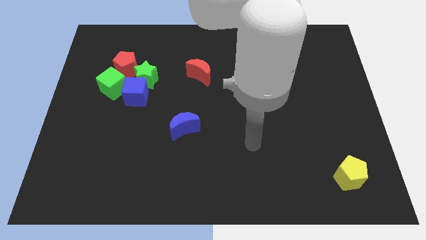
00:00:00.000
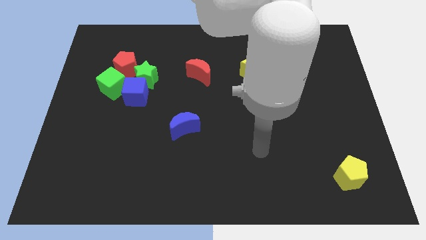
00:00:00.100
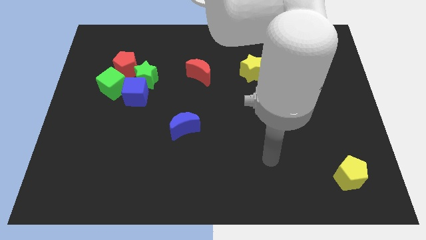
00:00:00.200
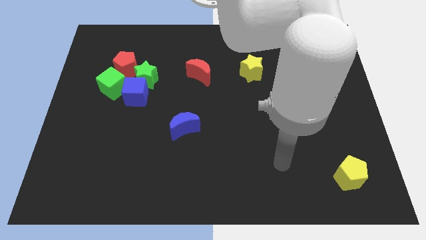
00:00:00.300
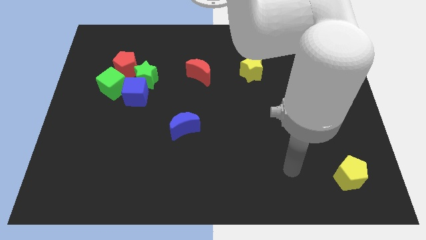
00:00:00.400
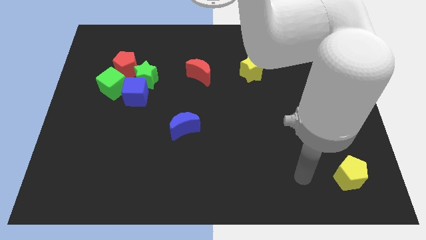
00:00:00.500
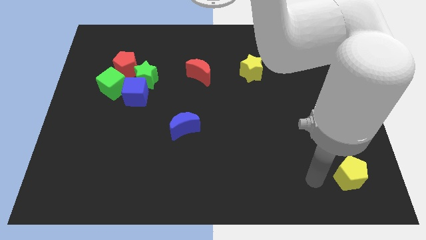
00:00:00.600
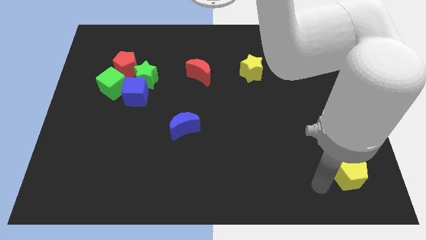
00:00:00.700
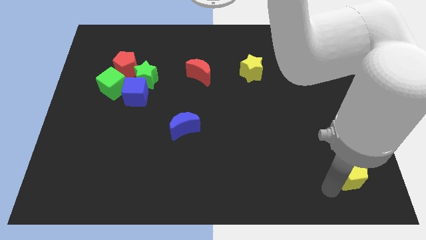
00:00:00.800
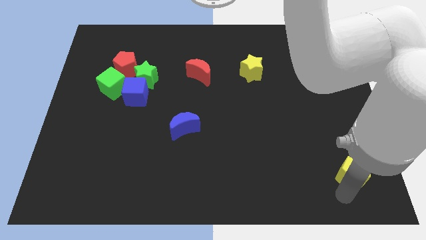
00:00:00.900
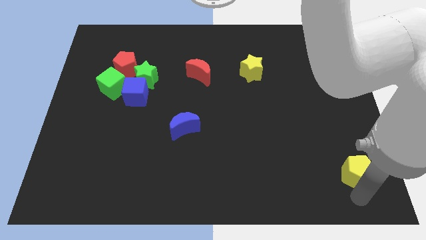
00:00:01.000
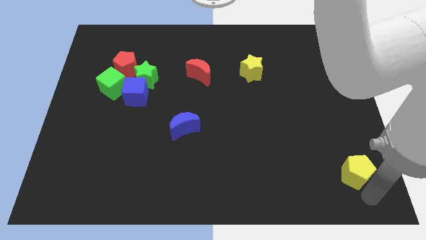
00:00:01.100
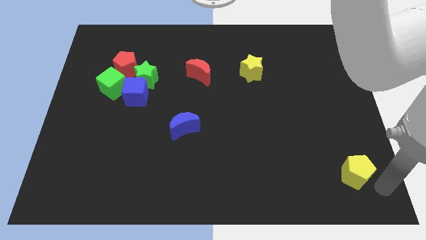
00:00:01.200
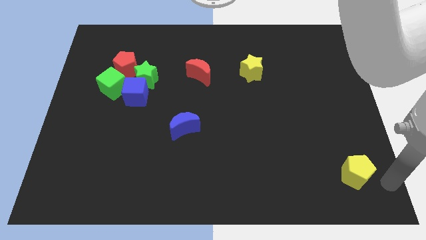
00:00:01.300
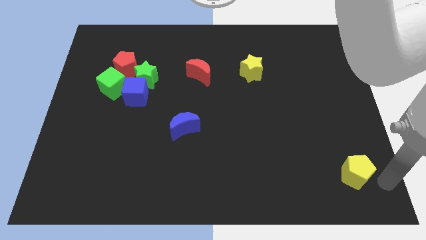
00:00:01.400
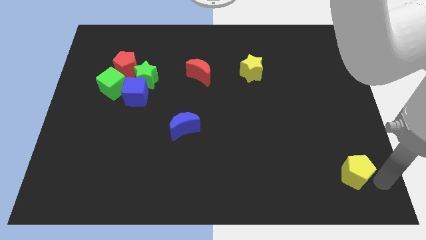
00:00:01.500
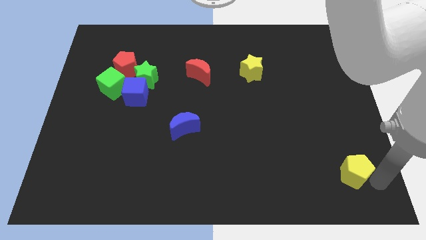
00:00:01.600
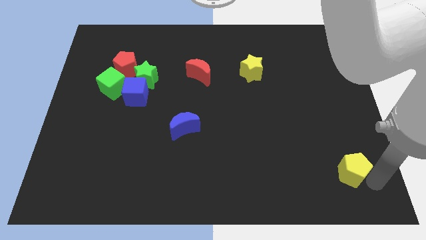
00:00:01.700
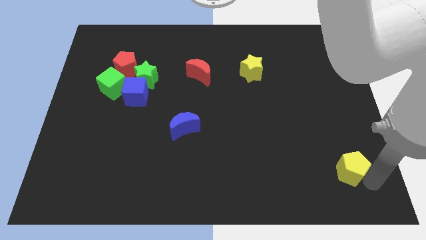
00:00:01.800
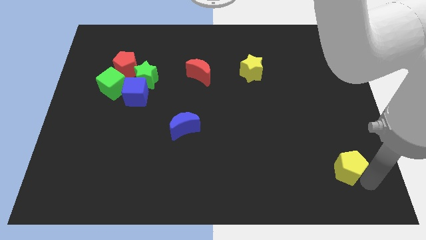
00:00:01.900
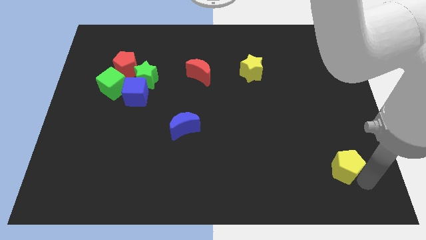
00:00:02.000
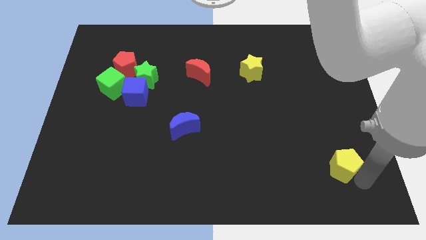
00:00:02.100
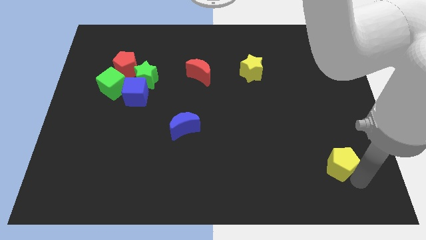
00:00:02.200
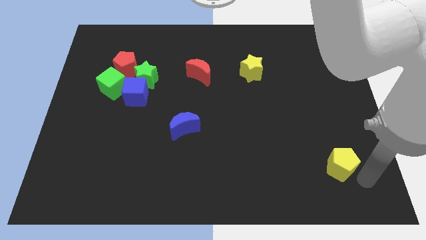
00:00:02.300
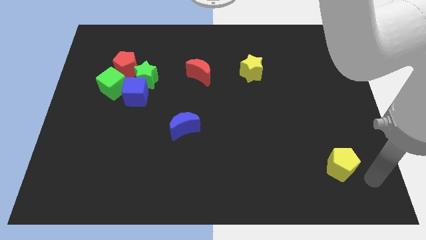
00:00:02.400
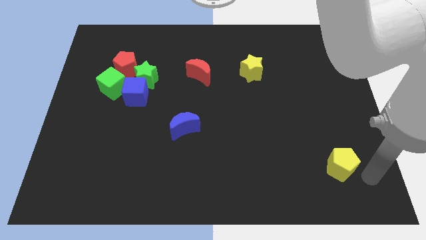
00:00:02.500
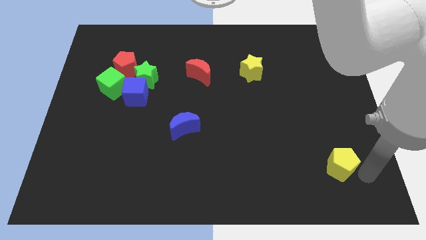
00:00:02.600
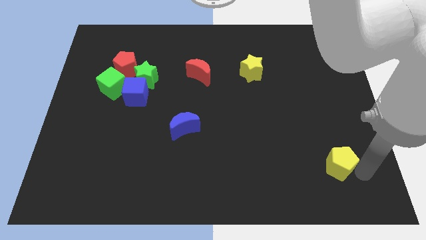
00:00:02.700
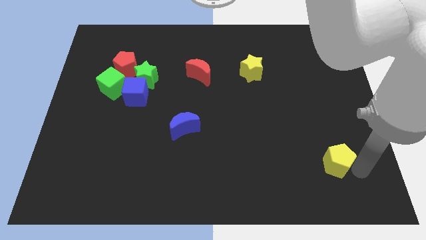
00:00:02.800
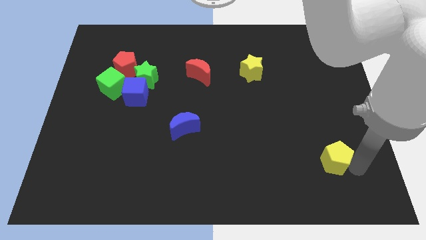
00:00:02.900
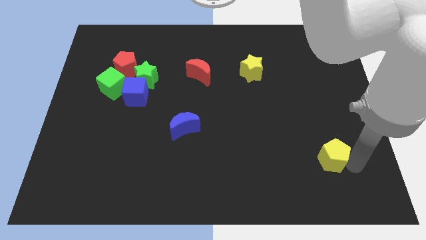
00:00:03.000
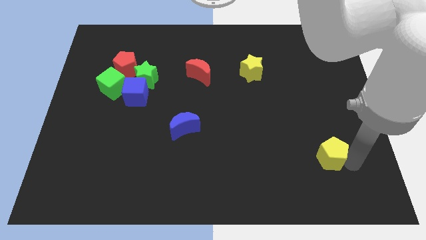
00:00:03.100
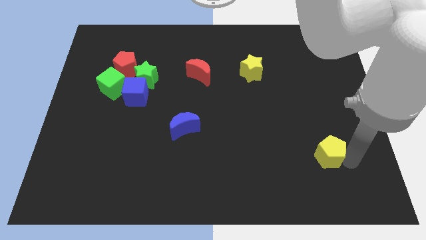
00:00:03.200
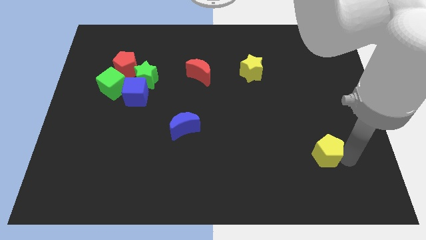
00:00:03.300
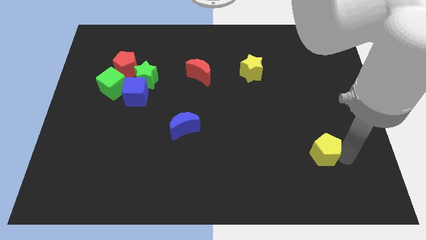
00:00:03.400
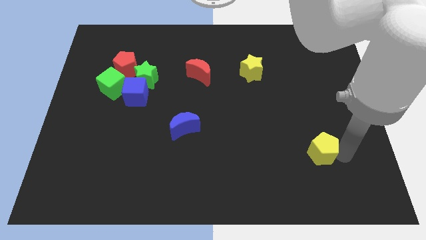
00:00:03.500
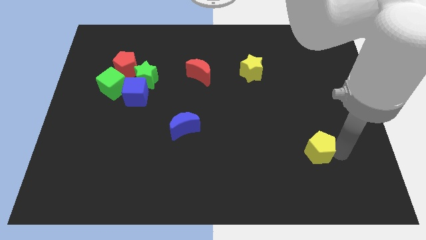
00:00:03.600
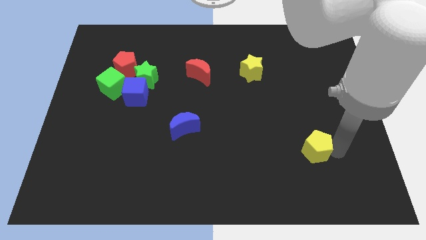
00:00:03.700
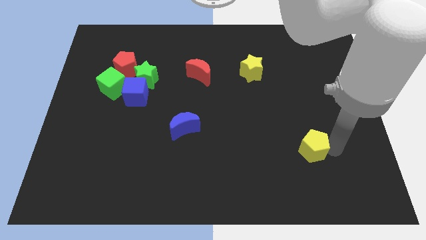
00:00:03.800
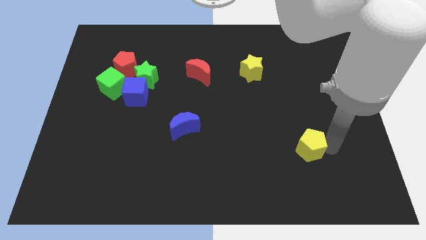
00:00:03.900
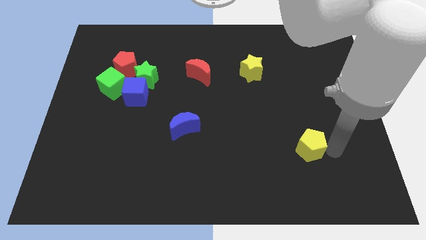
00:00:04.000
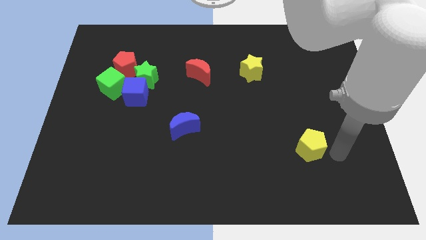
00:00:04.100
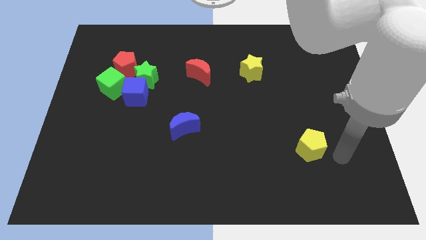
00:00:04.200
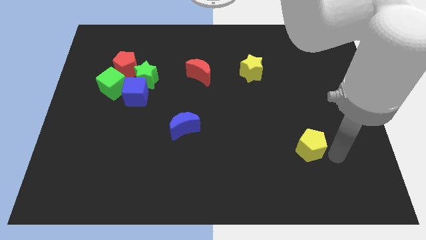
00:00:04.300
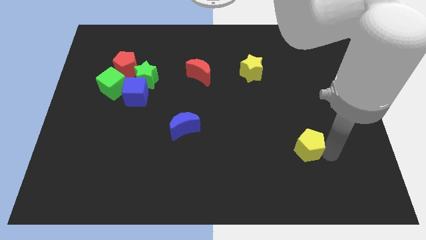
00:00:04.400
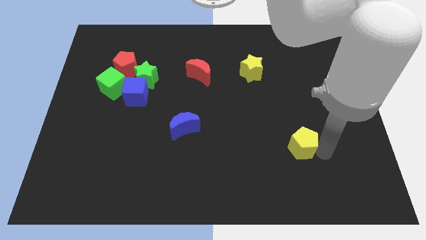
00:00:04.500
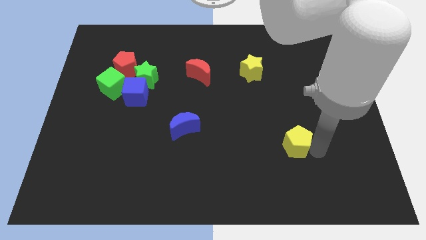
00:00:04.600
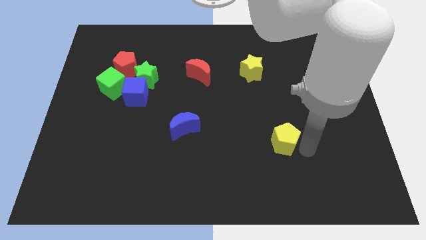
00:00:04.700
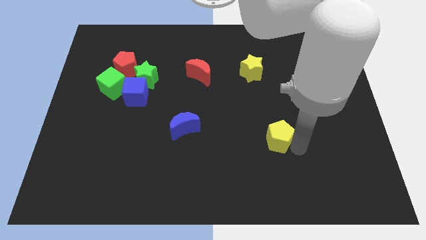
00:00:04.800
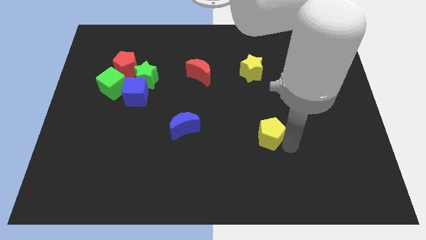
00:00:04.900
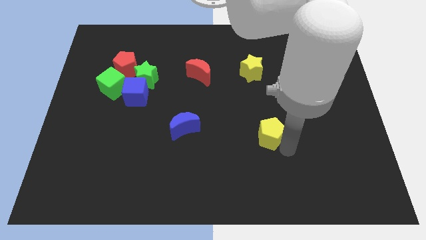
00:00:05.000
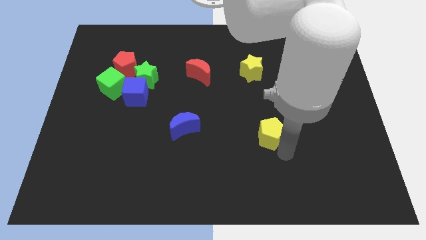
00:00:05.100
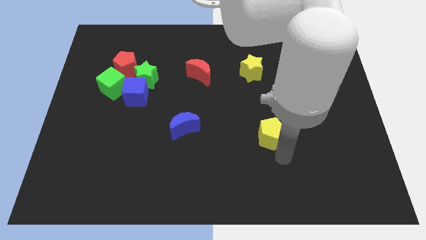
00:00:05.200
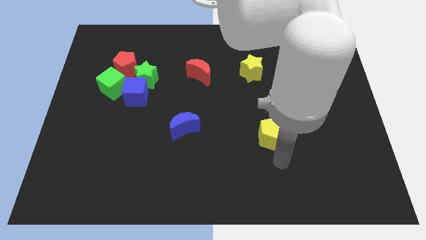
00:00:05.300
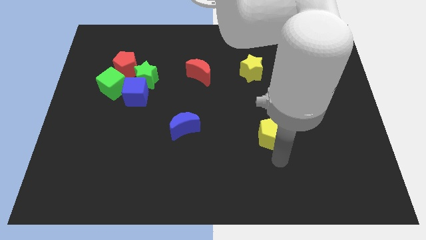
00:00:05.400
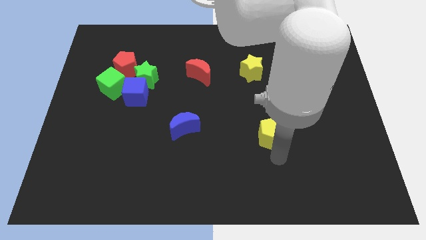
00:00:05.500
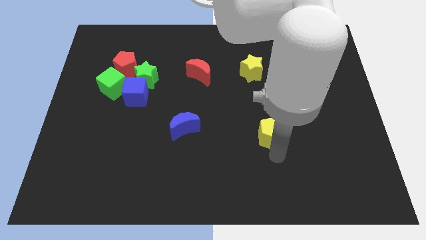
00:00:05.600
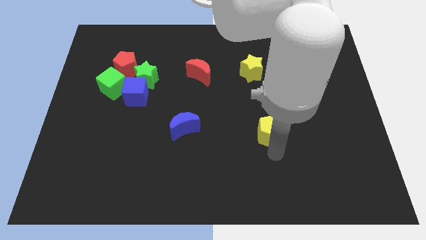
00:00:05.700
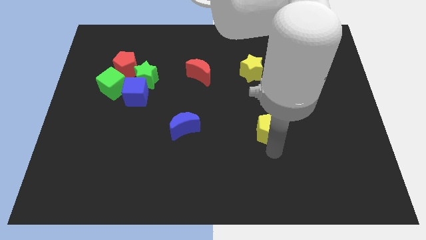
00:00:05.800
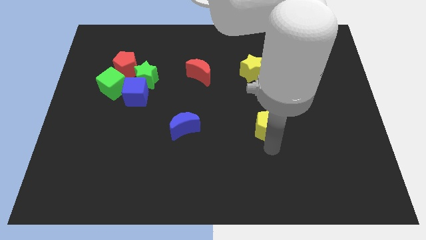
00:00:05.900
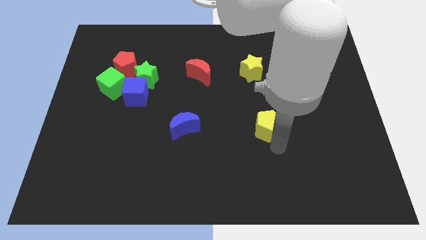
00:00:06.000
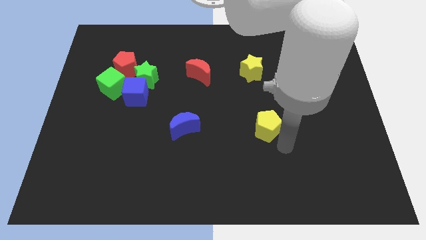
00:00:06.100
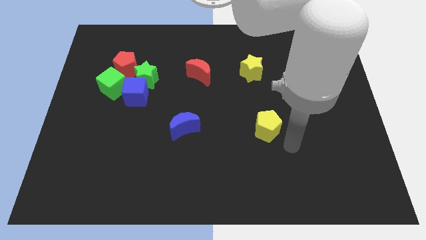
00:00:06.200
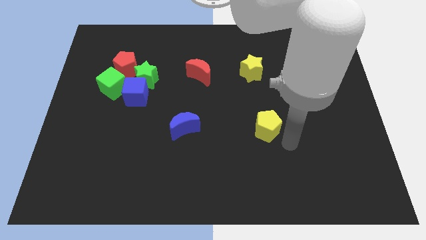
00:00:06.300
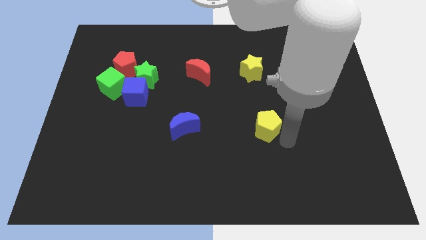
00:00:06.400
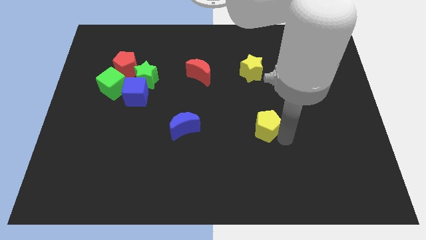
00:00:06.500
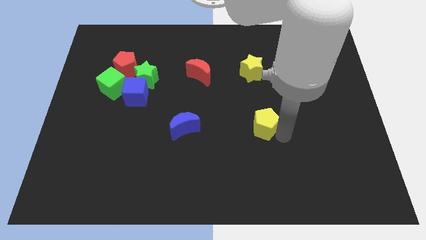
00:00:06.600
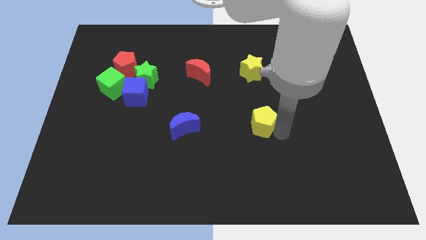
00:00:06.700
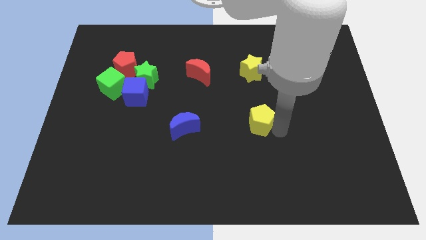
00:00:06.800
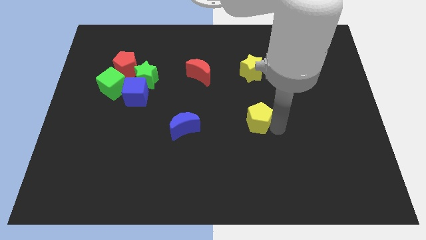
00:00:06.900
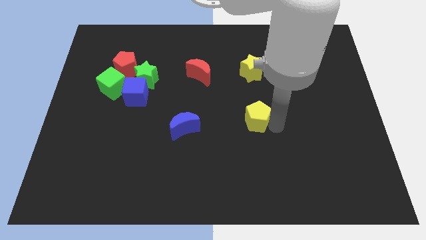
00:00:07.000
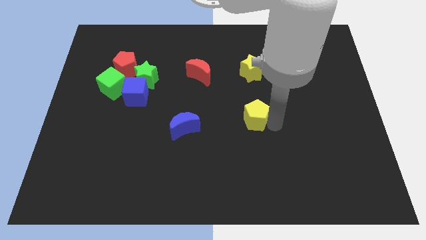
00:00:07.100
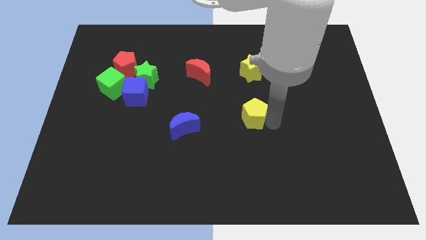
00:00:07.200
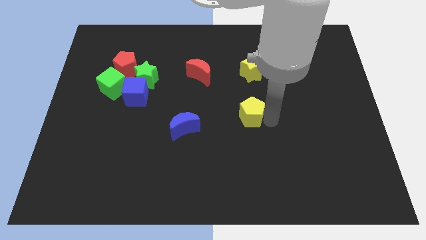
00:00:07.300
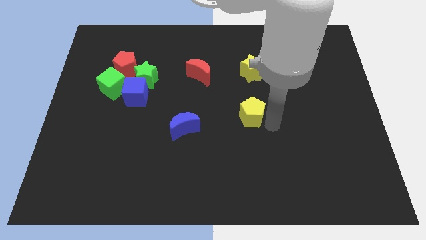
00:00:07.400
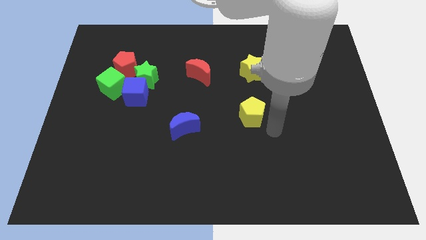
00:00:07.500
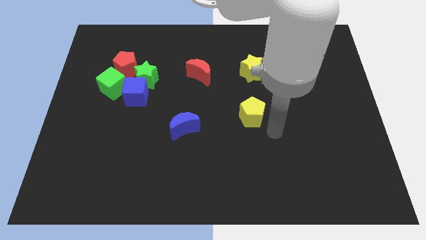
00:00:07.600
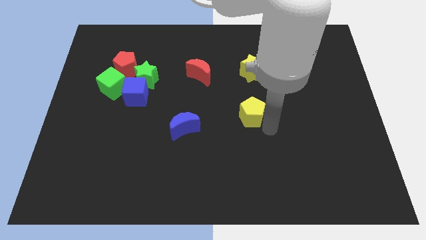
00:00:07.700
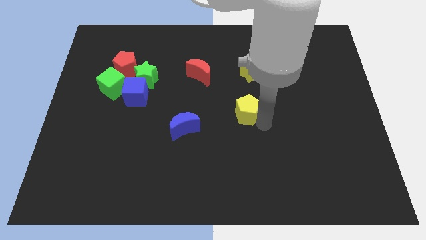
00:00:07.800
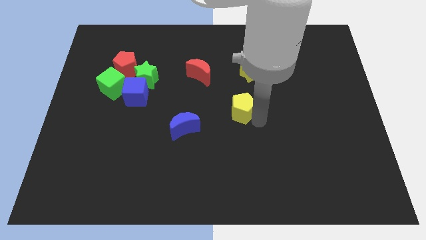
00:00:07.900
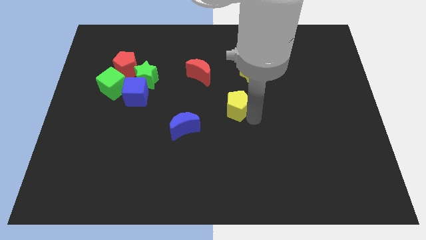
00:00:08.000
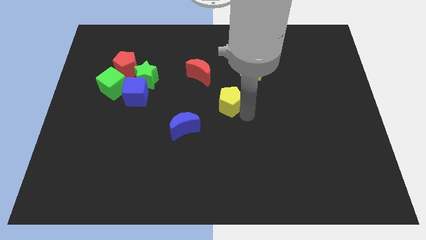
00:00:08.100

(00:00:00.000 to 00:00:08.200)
put the yellow pentagon to the bottom right side of the red moon
